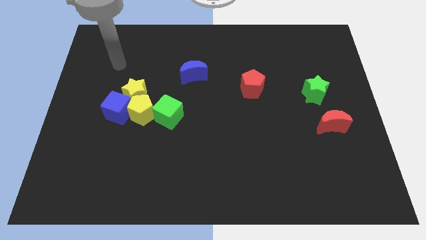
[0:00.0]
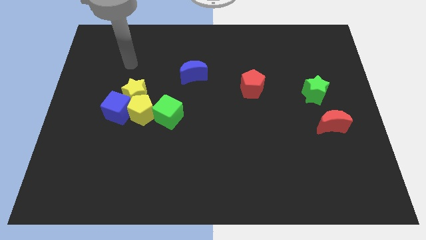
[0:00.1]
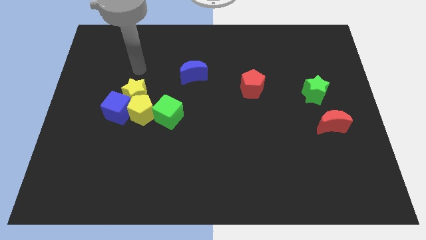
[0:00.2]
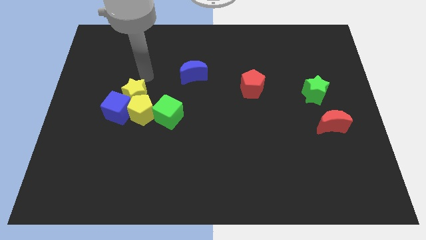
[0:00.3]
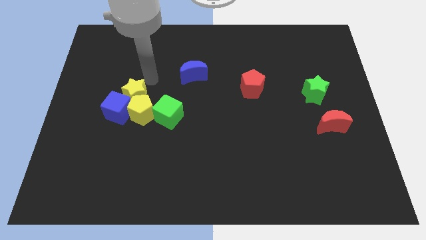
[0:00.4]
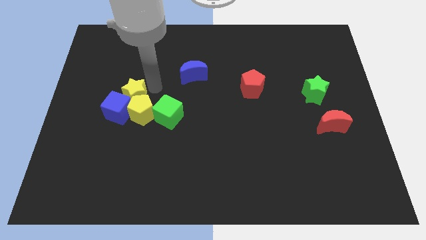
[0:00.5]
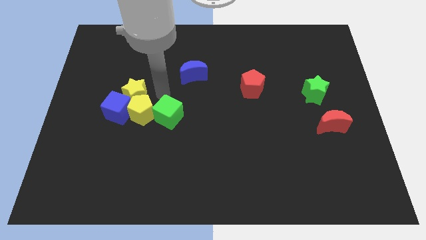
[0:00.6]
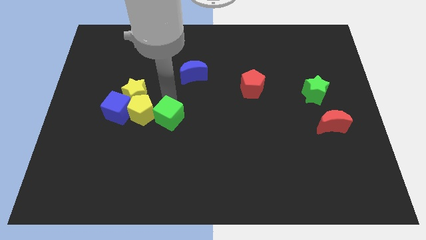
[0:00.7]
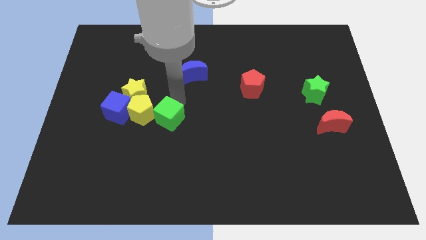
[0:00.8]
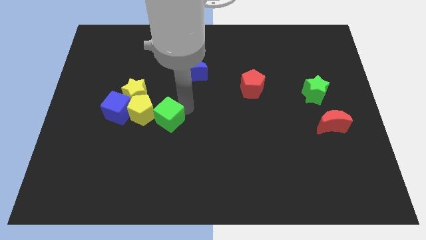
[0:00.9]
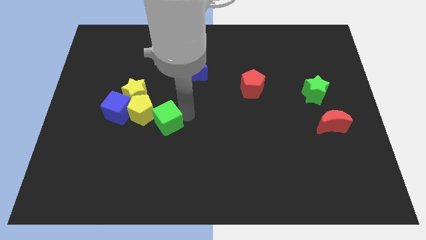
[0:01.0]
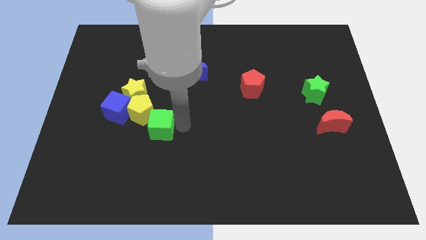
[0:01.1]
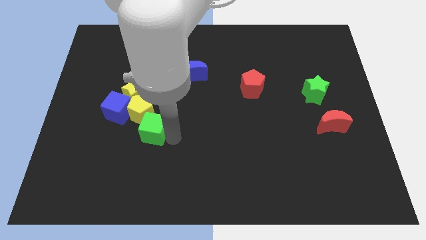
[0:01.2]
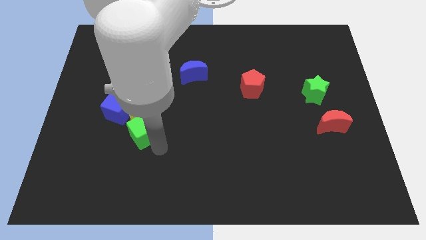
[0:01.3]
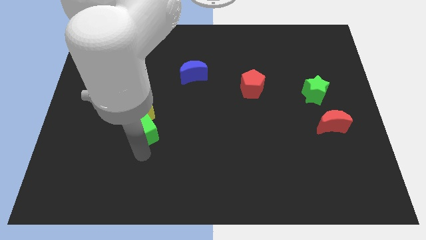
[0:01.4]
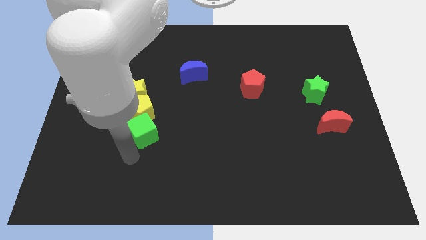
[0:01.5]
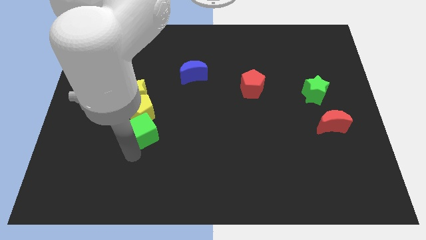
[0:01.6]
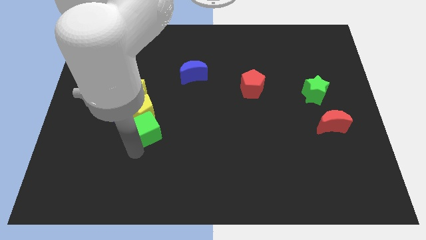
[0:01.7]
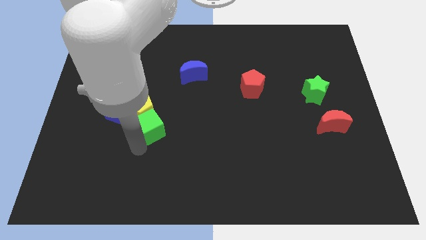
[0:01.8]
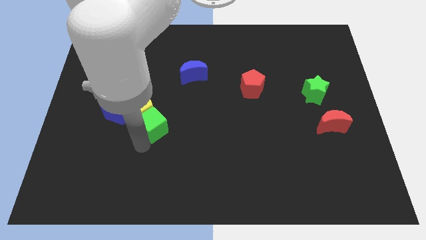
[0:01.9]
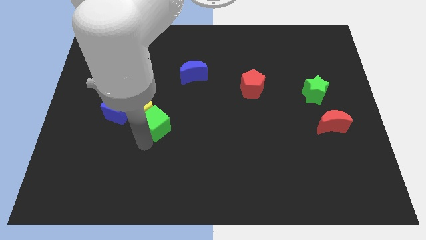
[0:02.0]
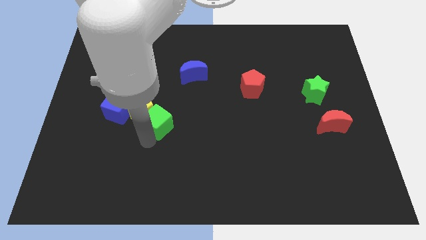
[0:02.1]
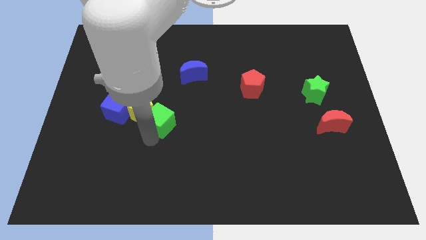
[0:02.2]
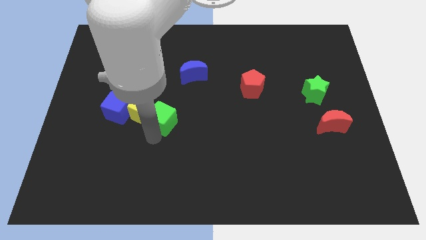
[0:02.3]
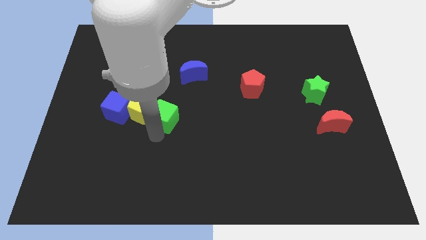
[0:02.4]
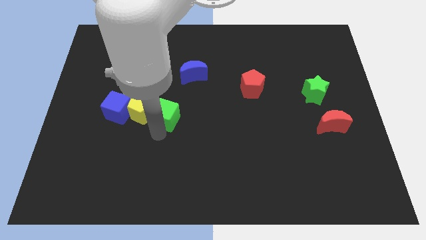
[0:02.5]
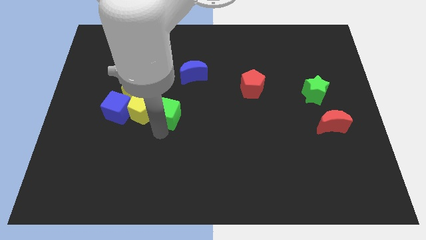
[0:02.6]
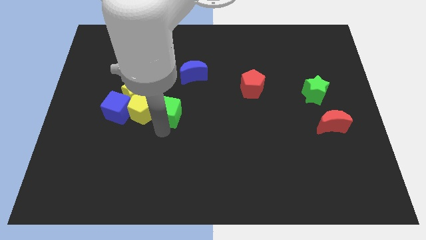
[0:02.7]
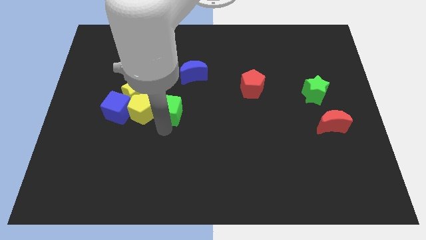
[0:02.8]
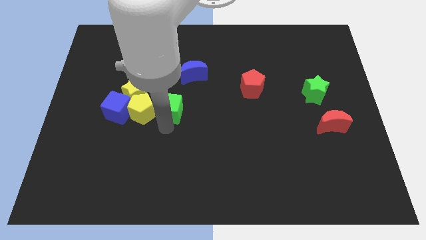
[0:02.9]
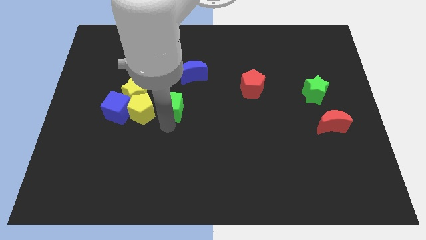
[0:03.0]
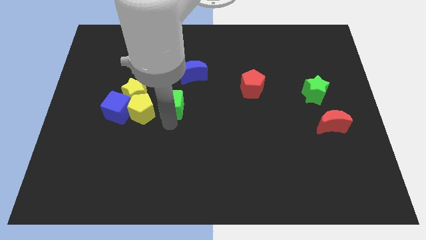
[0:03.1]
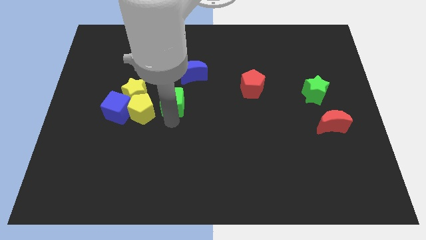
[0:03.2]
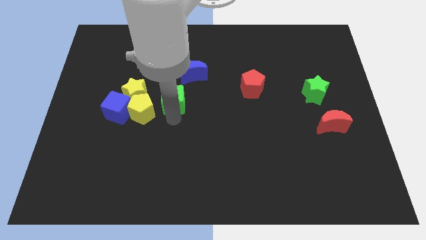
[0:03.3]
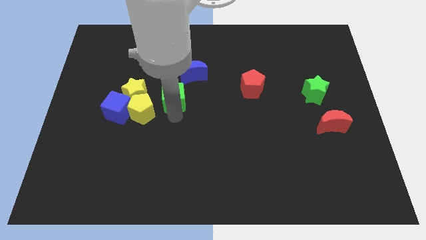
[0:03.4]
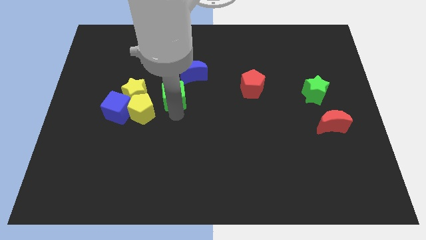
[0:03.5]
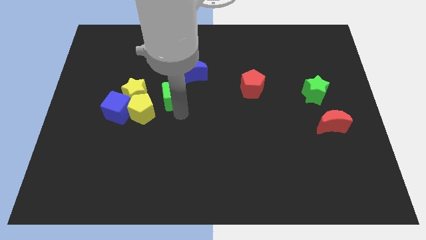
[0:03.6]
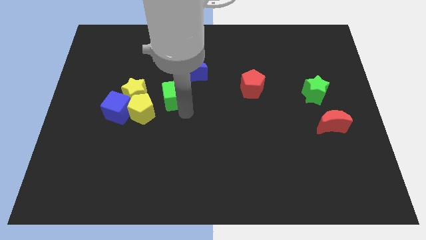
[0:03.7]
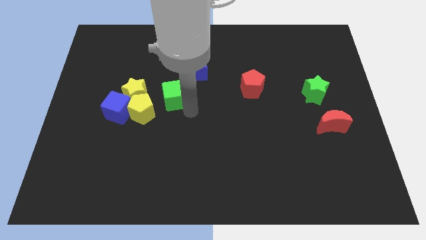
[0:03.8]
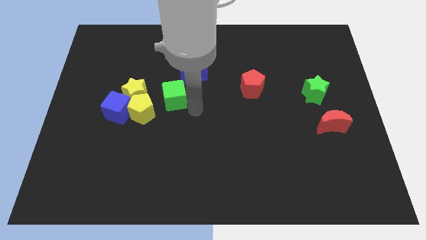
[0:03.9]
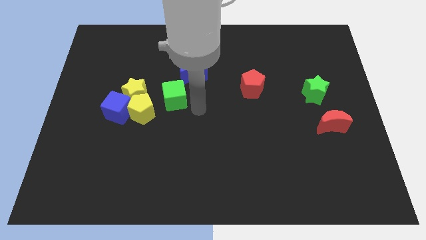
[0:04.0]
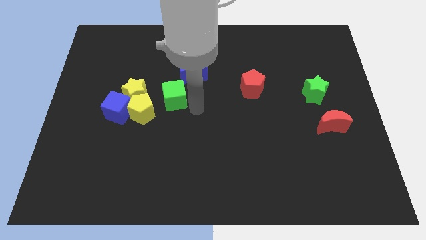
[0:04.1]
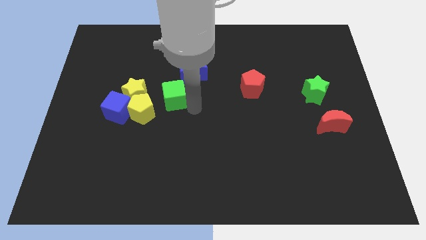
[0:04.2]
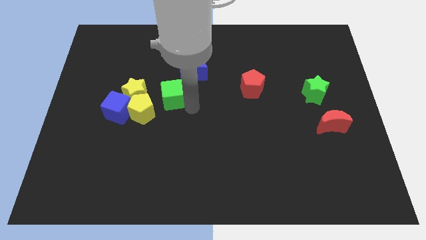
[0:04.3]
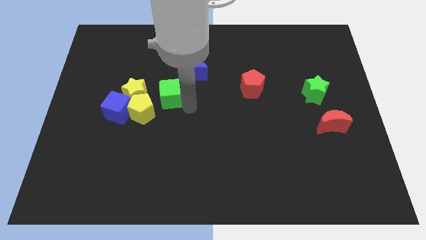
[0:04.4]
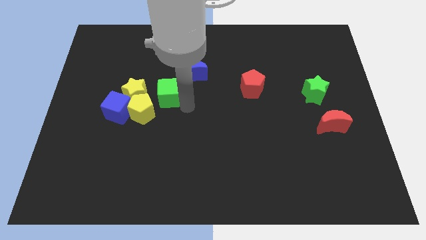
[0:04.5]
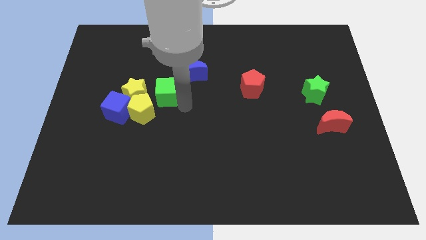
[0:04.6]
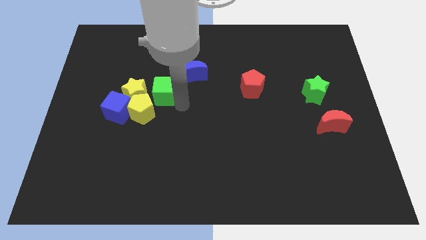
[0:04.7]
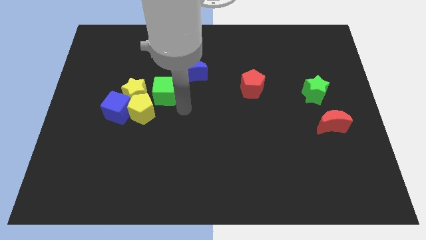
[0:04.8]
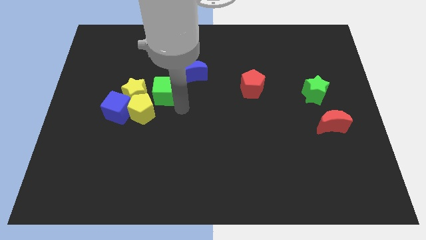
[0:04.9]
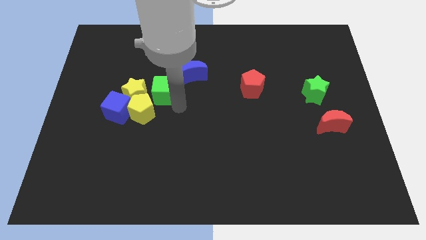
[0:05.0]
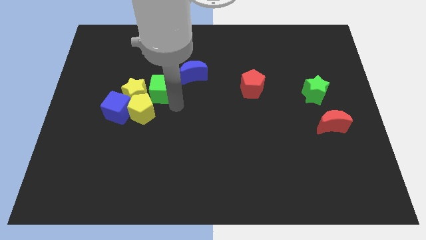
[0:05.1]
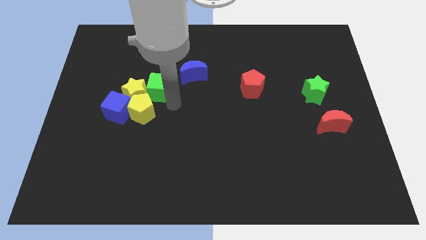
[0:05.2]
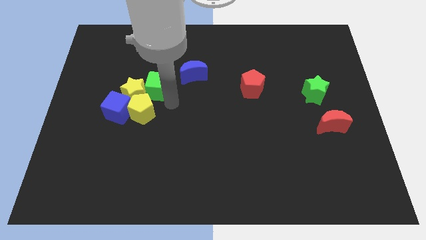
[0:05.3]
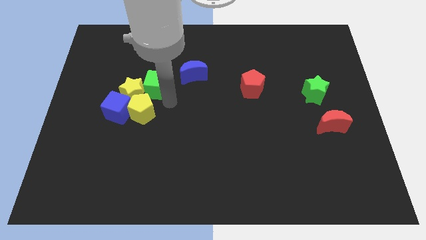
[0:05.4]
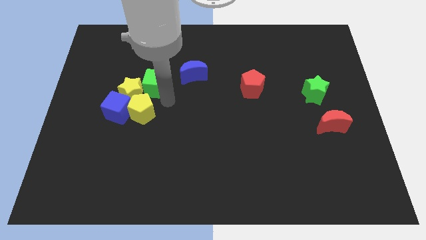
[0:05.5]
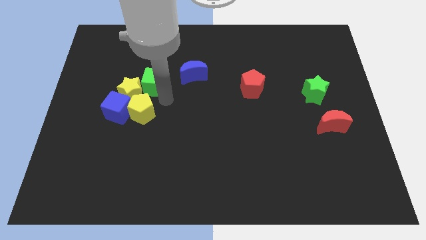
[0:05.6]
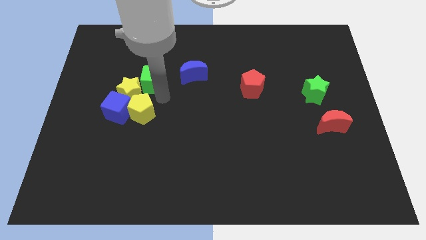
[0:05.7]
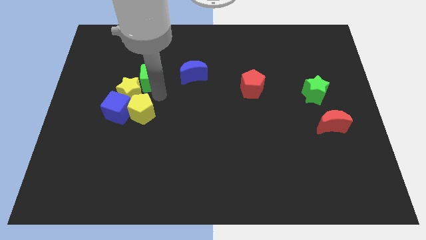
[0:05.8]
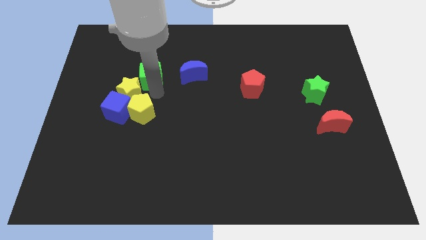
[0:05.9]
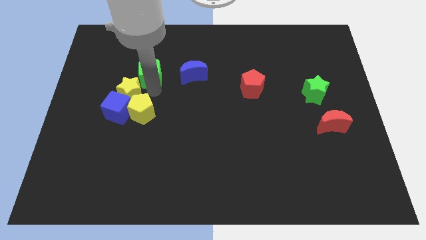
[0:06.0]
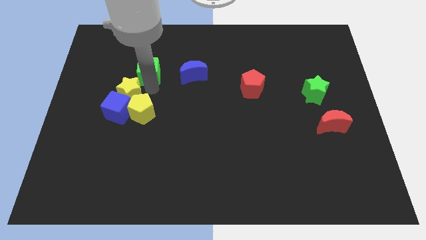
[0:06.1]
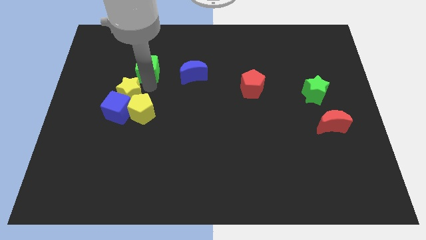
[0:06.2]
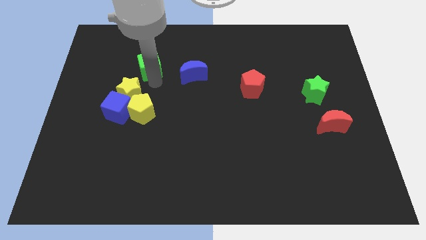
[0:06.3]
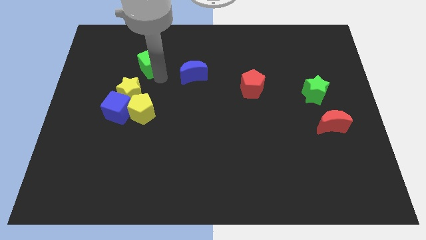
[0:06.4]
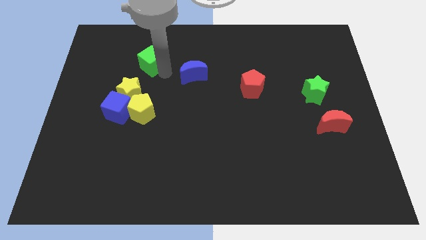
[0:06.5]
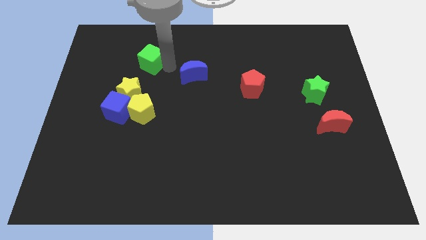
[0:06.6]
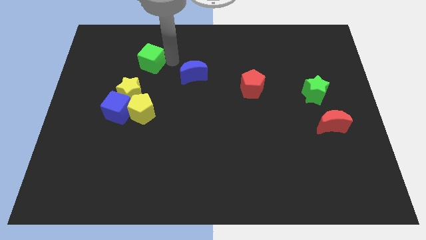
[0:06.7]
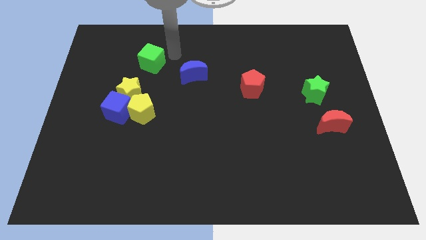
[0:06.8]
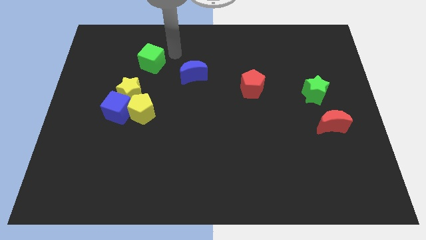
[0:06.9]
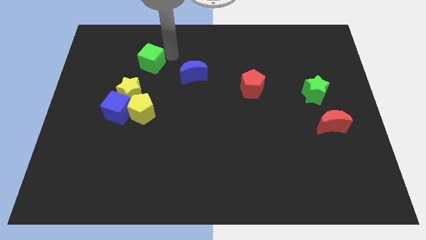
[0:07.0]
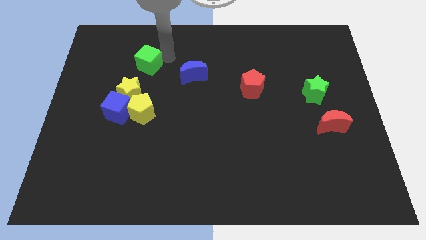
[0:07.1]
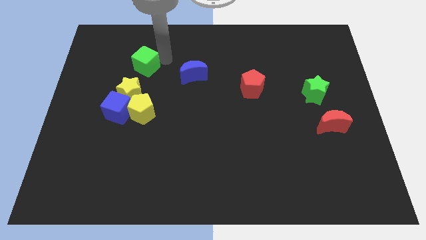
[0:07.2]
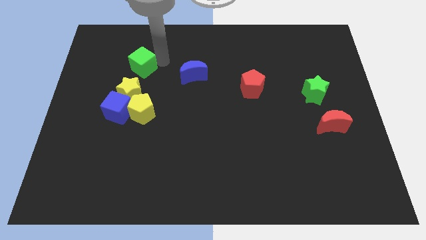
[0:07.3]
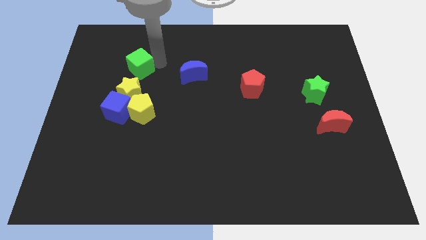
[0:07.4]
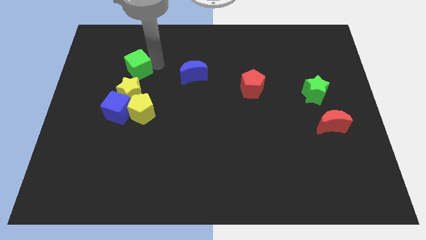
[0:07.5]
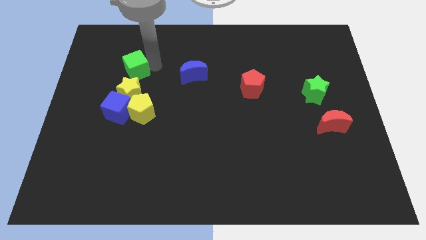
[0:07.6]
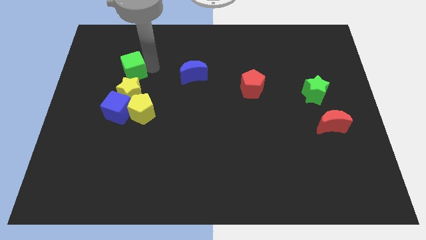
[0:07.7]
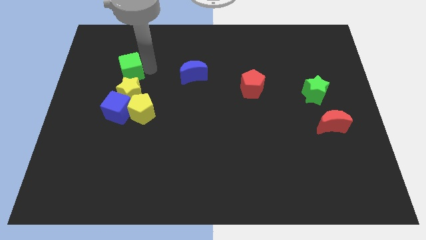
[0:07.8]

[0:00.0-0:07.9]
slide the green cube to the top left side of the yellow star
